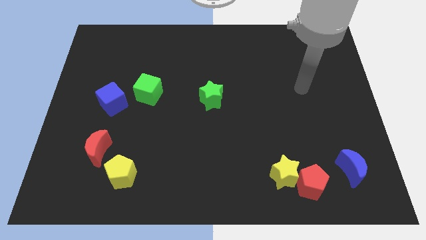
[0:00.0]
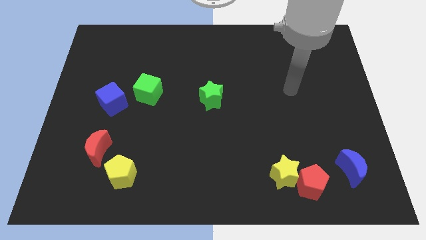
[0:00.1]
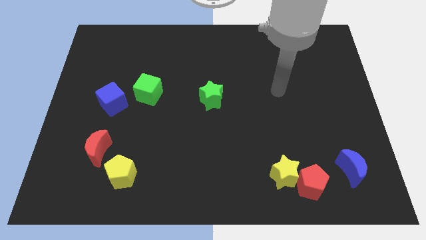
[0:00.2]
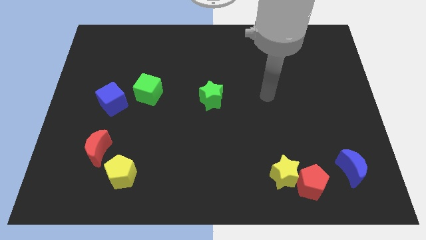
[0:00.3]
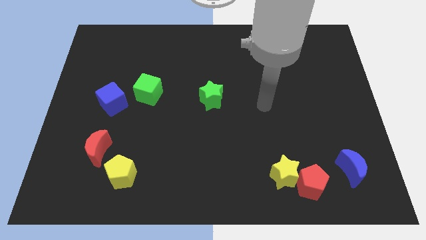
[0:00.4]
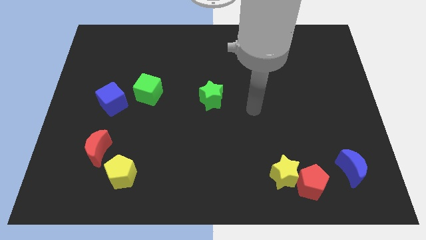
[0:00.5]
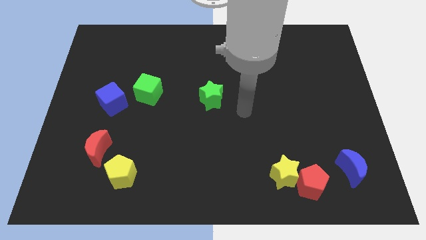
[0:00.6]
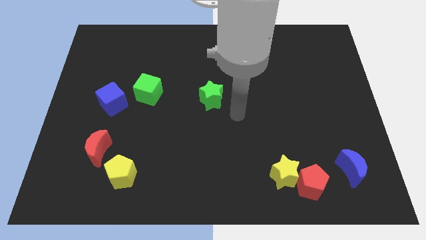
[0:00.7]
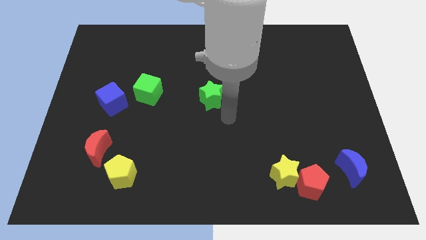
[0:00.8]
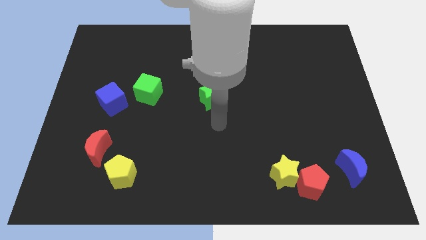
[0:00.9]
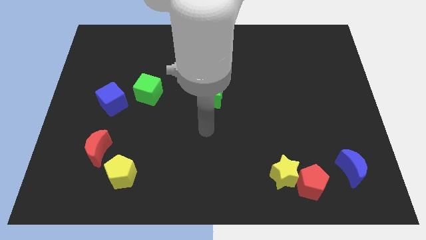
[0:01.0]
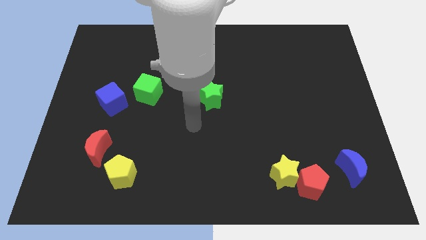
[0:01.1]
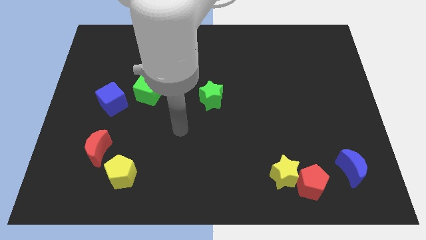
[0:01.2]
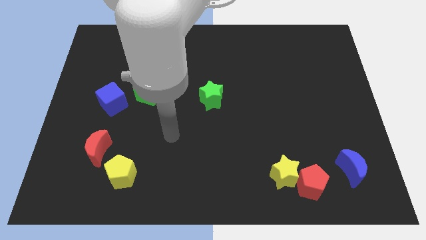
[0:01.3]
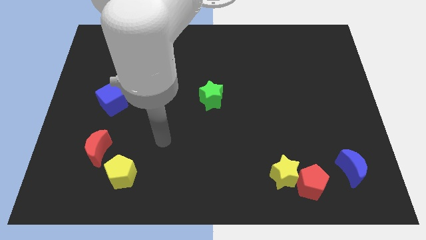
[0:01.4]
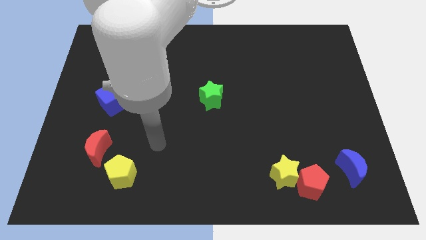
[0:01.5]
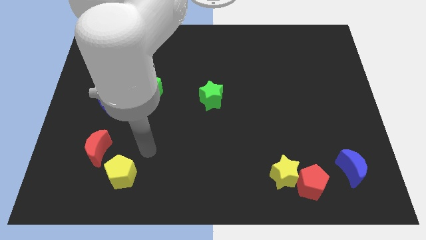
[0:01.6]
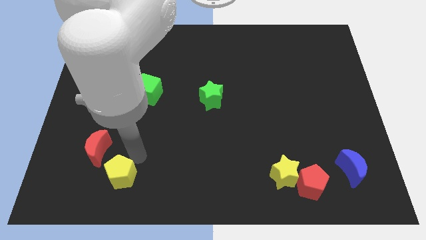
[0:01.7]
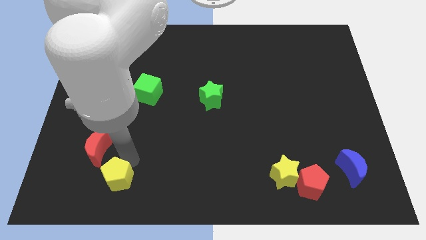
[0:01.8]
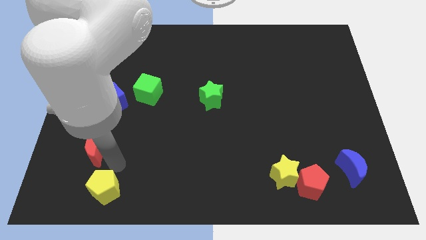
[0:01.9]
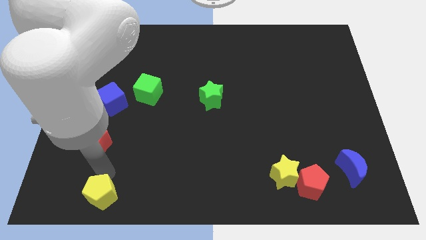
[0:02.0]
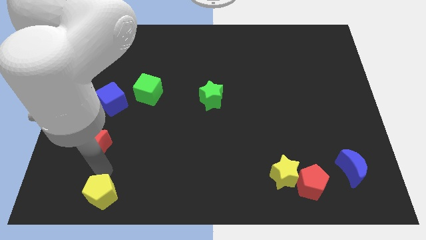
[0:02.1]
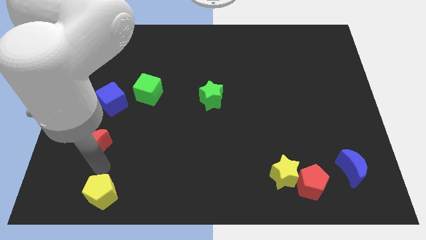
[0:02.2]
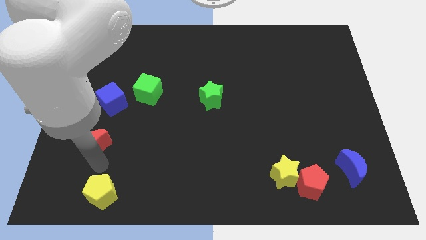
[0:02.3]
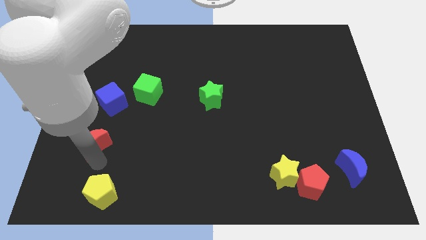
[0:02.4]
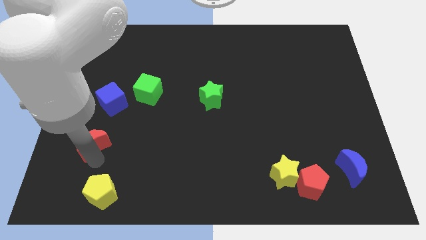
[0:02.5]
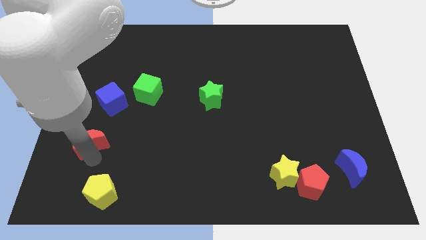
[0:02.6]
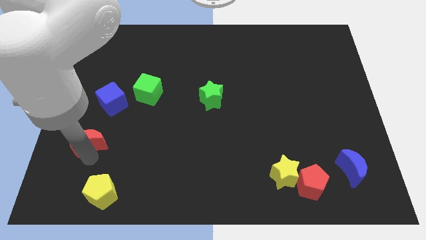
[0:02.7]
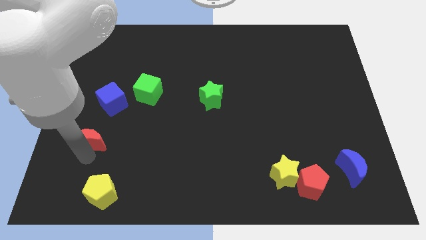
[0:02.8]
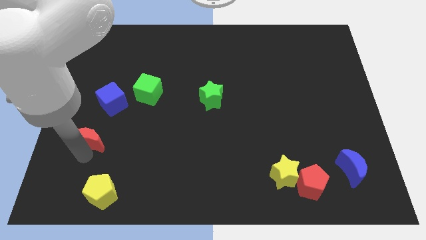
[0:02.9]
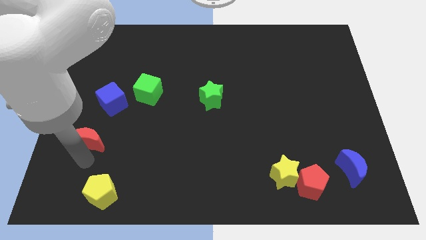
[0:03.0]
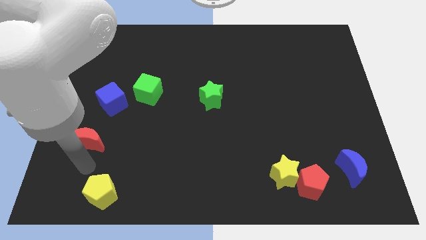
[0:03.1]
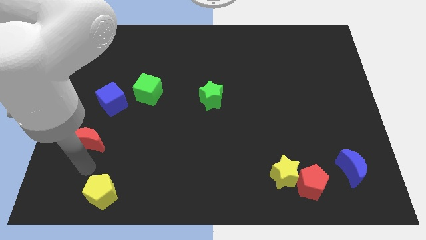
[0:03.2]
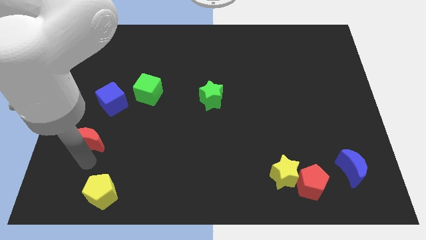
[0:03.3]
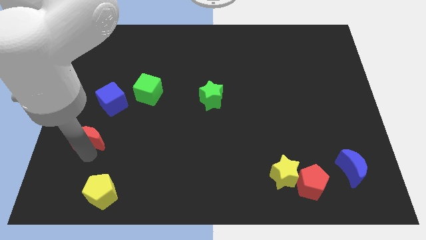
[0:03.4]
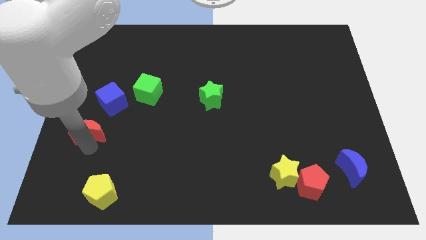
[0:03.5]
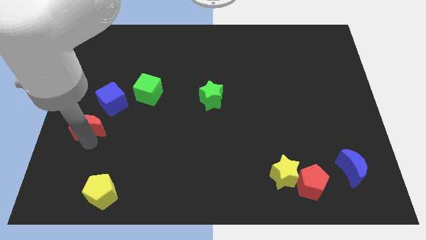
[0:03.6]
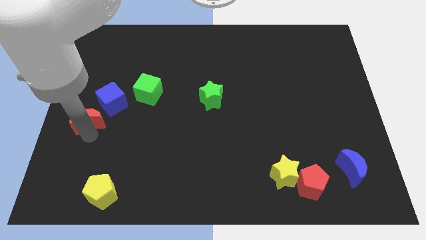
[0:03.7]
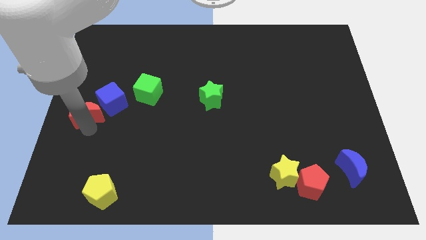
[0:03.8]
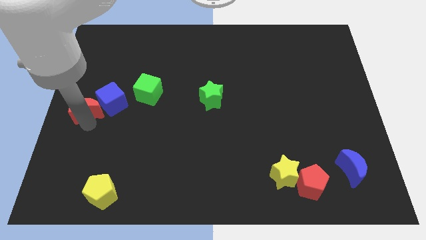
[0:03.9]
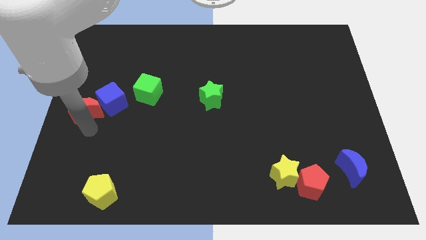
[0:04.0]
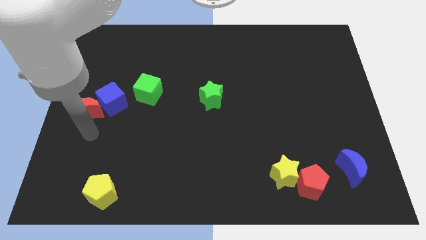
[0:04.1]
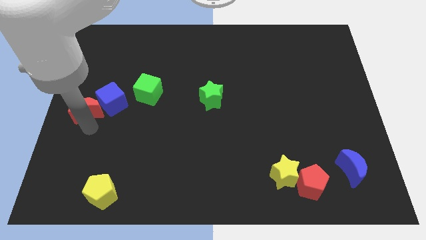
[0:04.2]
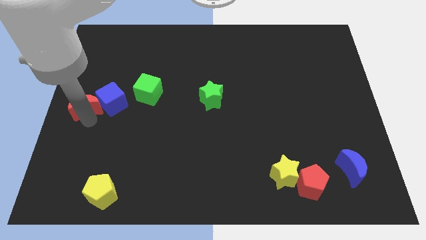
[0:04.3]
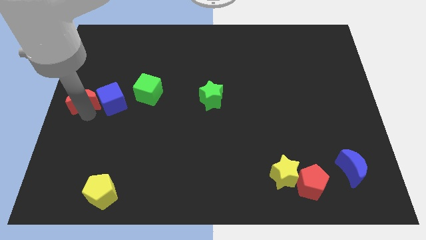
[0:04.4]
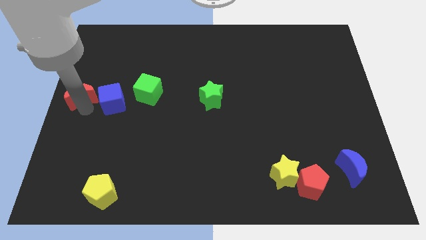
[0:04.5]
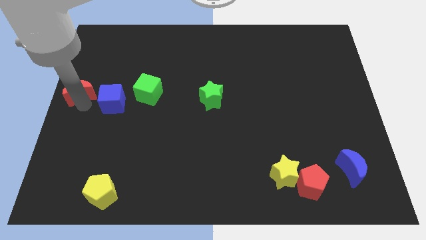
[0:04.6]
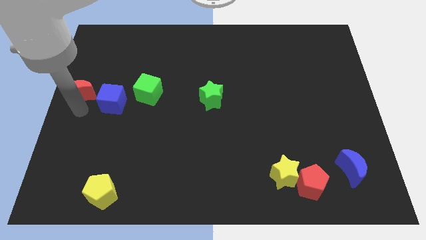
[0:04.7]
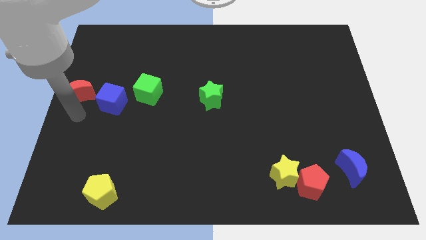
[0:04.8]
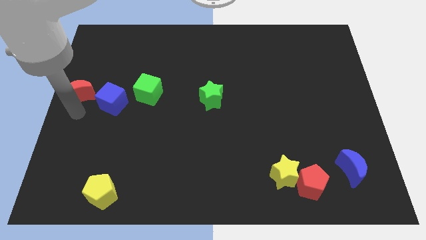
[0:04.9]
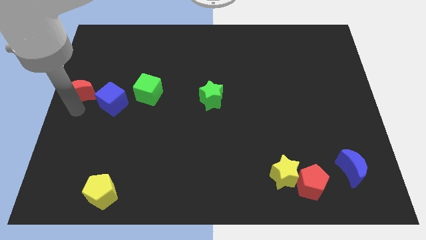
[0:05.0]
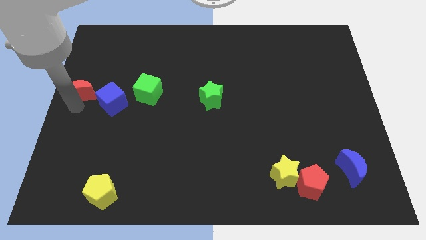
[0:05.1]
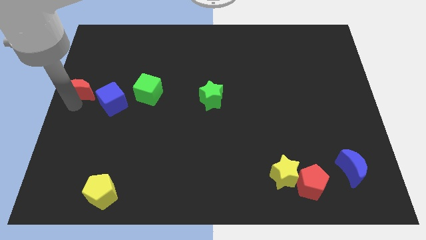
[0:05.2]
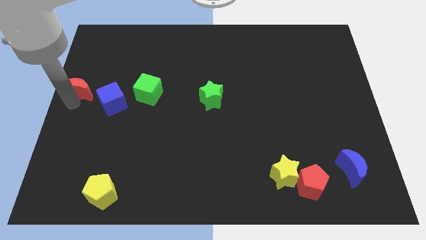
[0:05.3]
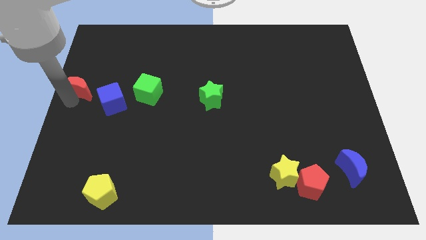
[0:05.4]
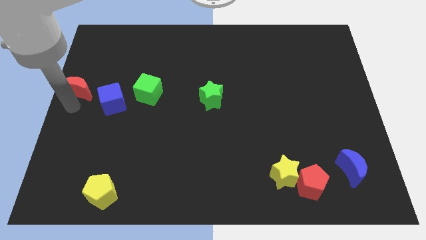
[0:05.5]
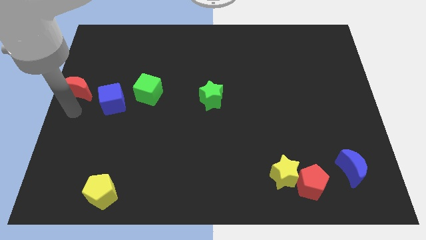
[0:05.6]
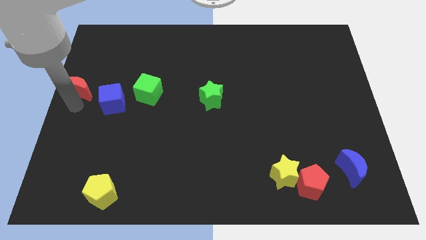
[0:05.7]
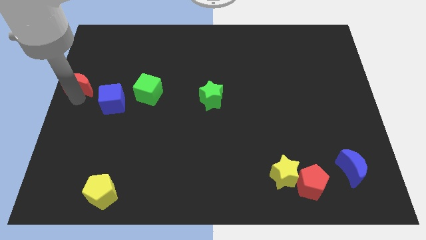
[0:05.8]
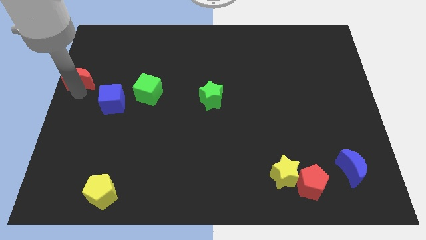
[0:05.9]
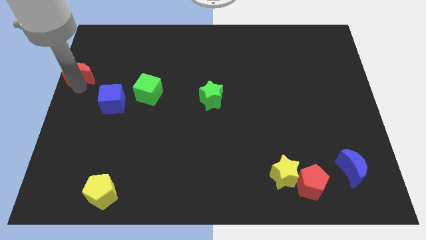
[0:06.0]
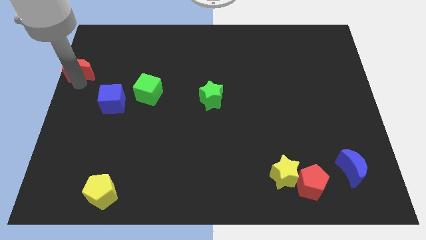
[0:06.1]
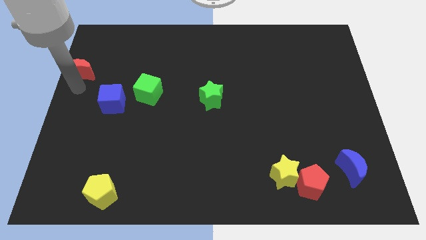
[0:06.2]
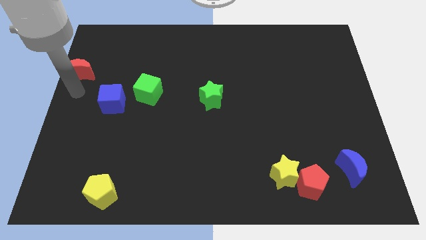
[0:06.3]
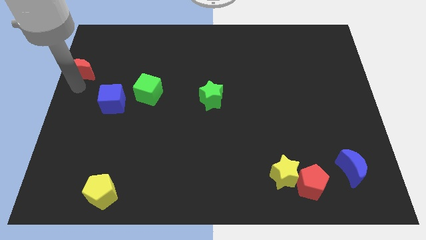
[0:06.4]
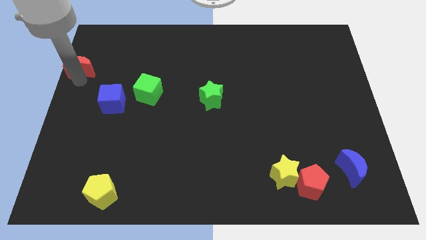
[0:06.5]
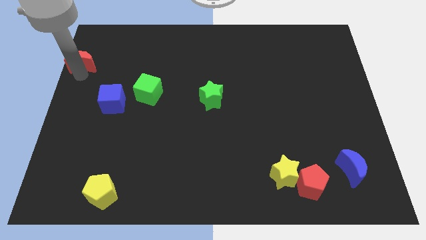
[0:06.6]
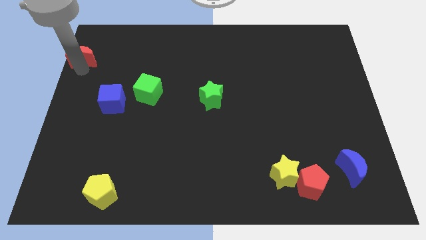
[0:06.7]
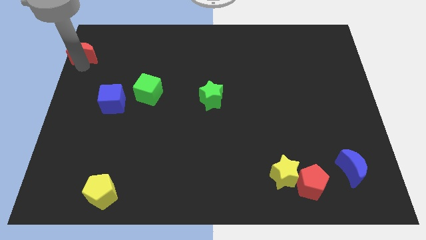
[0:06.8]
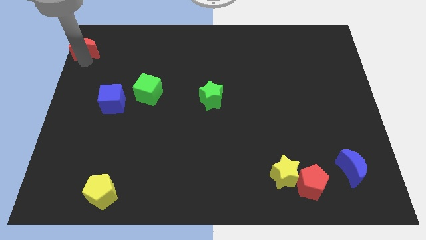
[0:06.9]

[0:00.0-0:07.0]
put the red moon to the top left corner
